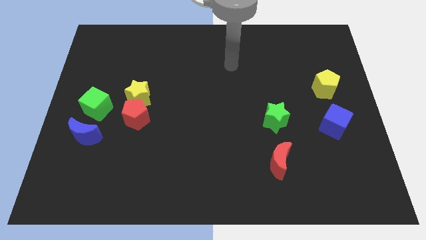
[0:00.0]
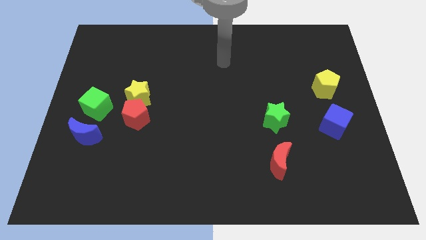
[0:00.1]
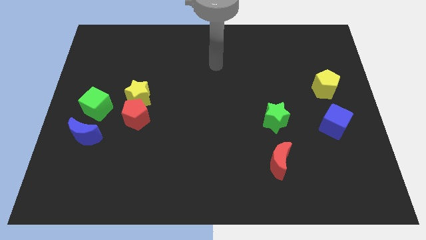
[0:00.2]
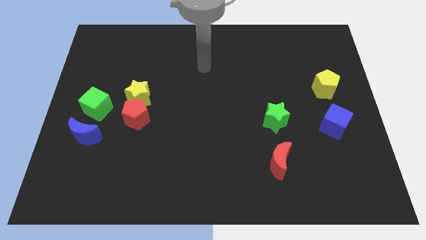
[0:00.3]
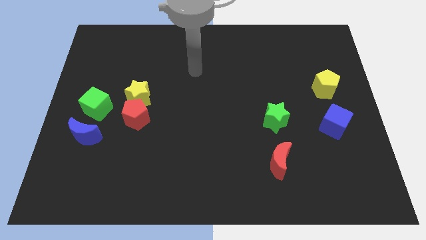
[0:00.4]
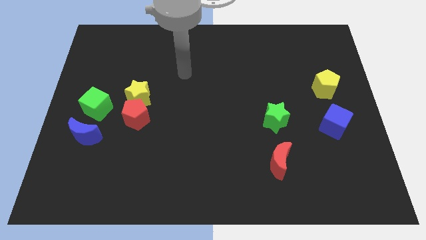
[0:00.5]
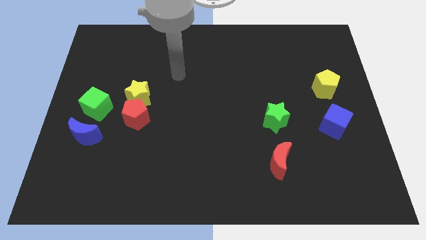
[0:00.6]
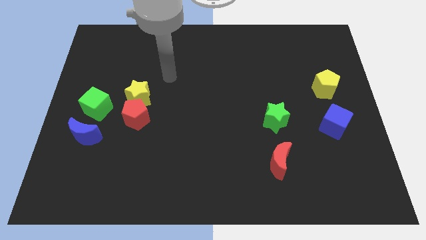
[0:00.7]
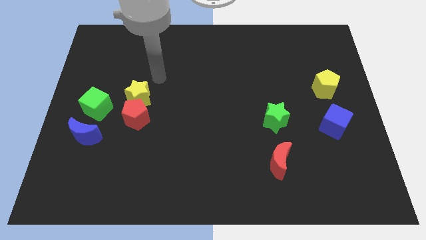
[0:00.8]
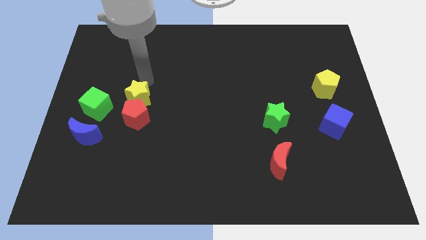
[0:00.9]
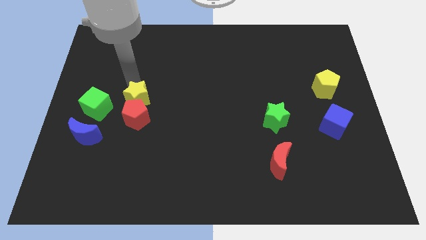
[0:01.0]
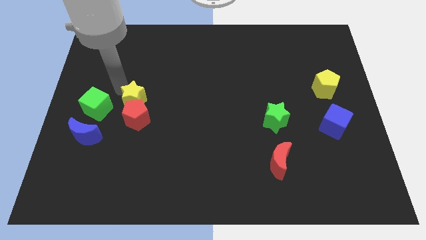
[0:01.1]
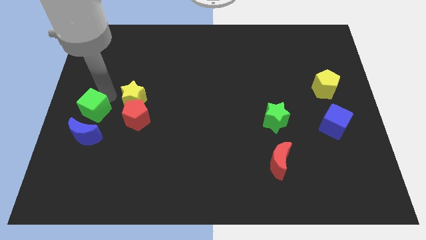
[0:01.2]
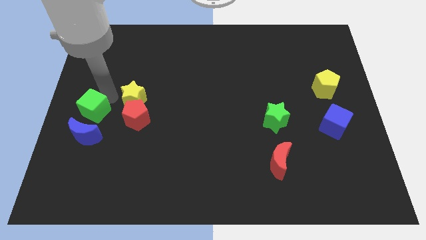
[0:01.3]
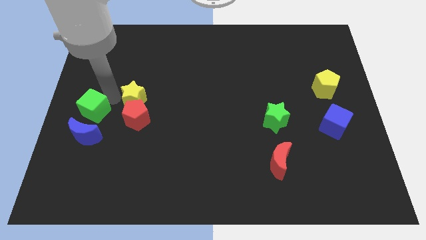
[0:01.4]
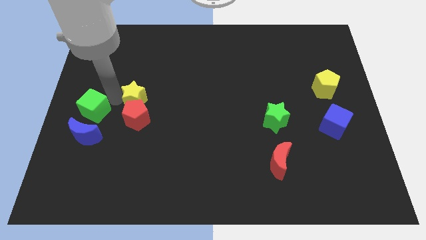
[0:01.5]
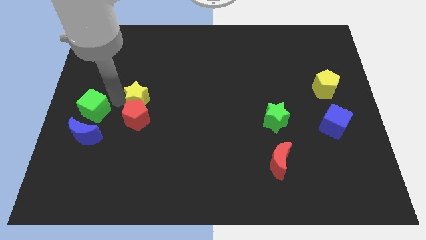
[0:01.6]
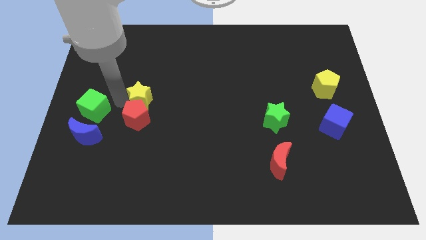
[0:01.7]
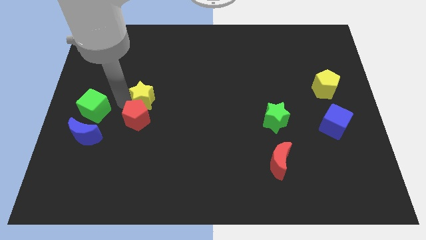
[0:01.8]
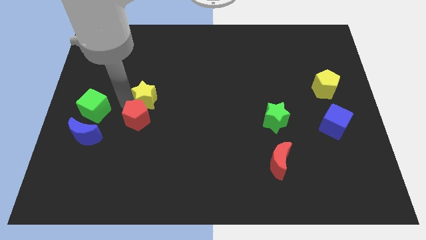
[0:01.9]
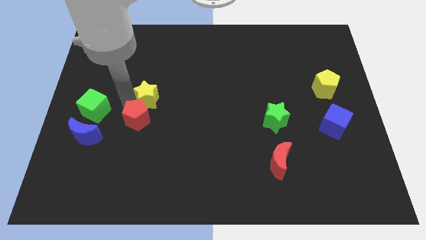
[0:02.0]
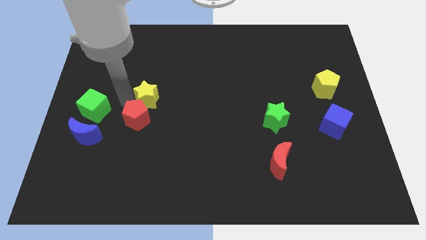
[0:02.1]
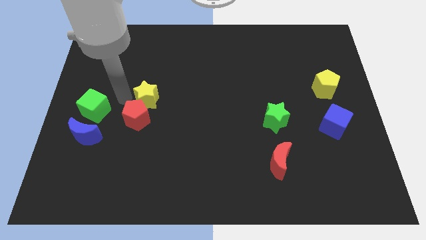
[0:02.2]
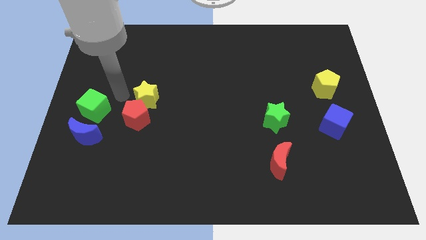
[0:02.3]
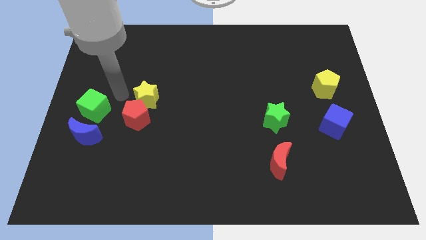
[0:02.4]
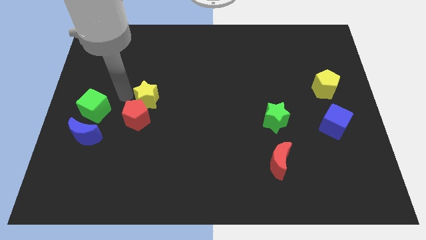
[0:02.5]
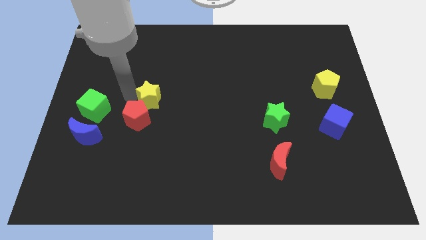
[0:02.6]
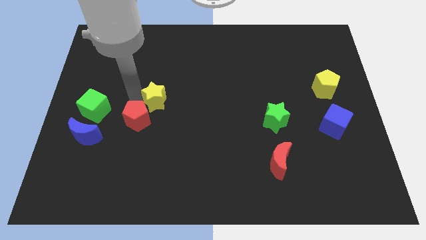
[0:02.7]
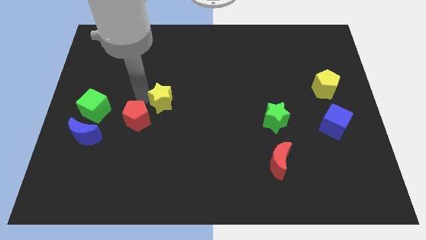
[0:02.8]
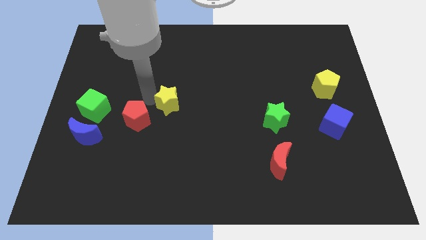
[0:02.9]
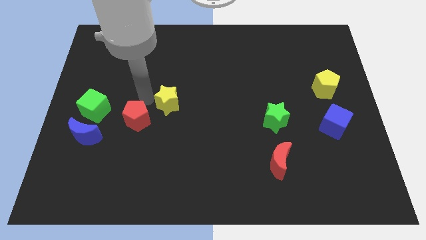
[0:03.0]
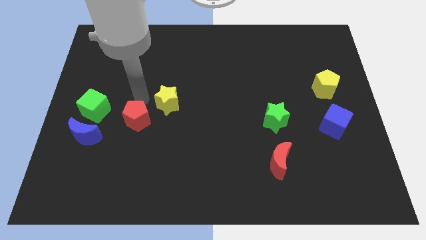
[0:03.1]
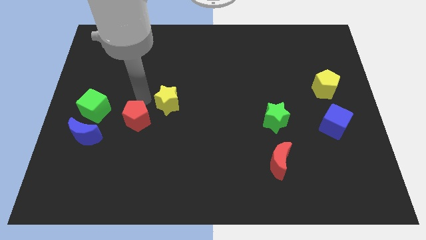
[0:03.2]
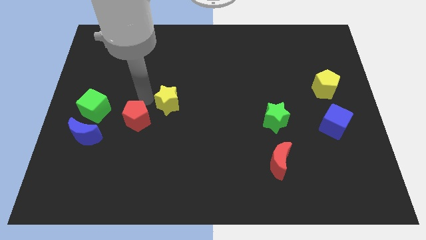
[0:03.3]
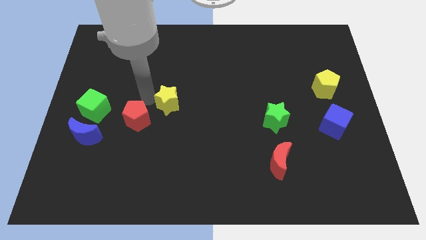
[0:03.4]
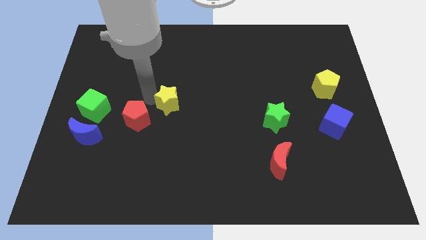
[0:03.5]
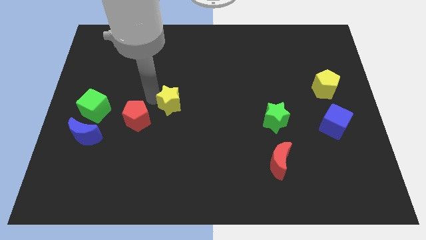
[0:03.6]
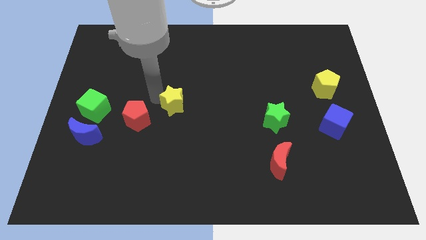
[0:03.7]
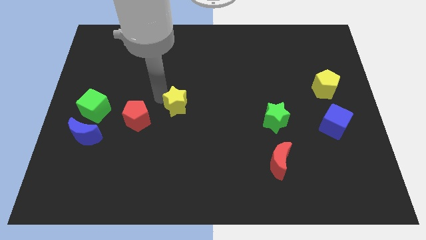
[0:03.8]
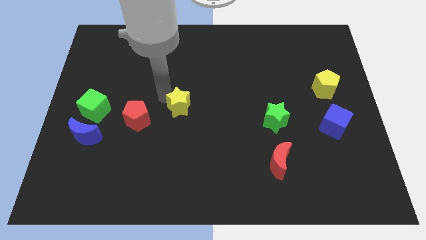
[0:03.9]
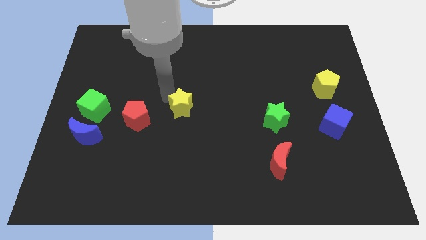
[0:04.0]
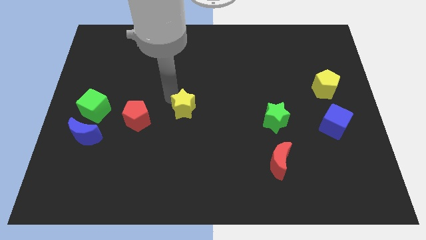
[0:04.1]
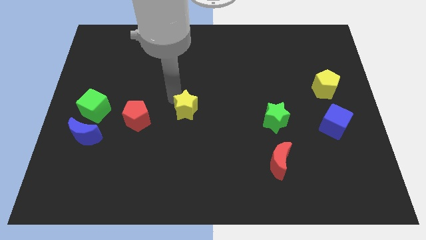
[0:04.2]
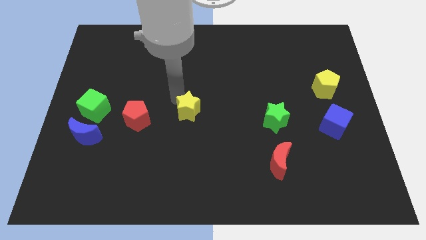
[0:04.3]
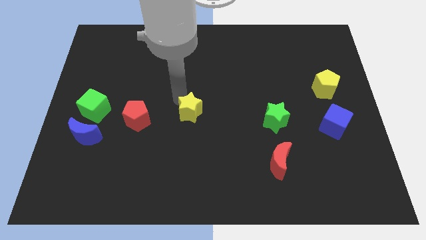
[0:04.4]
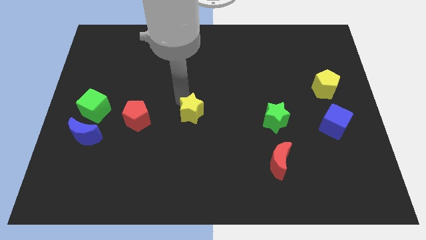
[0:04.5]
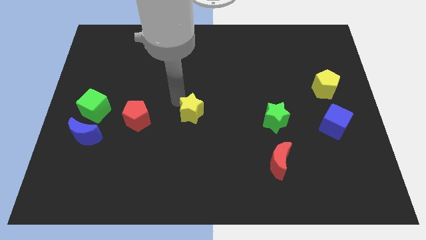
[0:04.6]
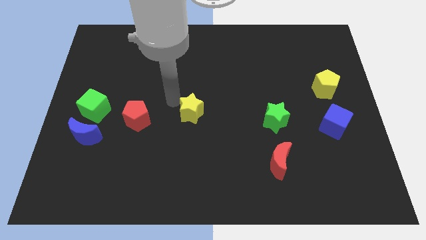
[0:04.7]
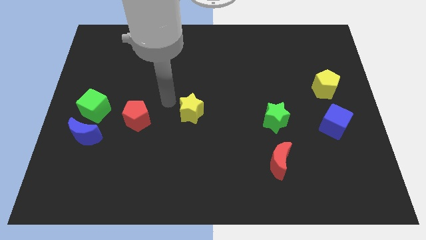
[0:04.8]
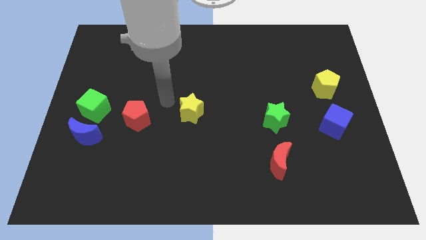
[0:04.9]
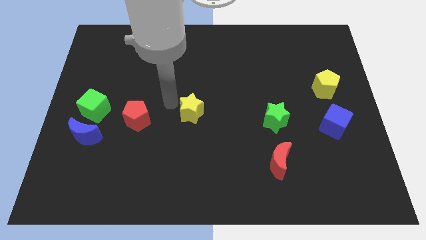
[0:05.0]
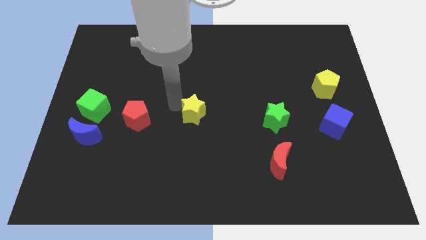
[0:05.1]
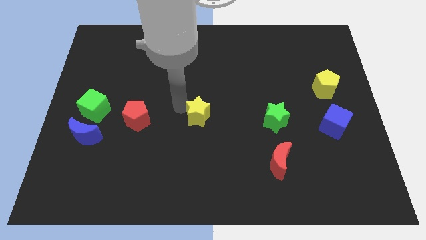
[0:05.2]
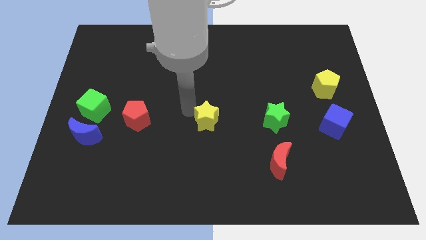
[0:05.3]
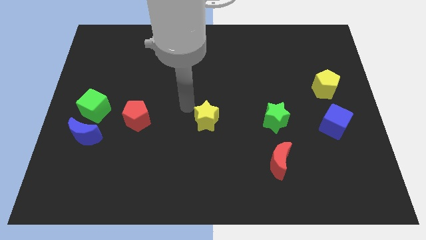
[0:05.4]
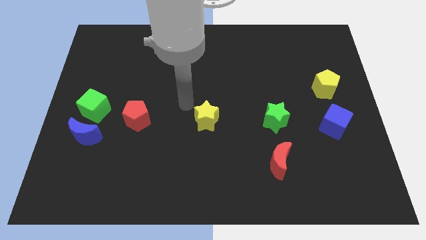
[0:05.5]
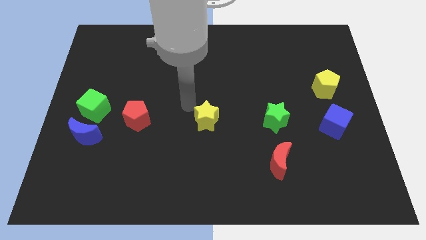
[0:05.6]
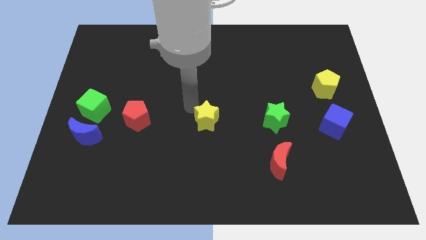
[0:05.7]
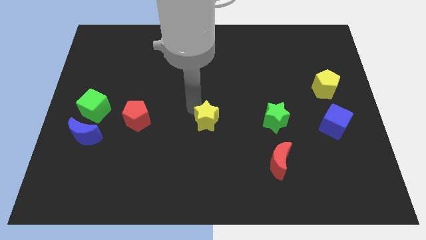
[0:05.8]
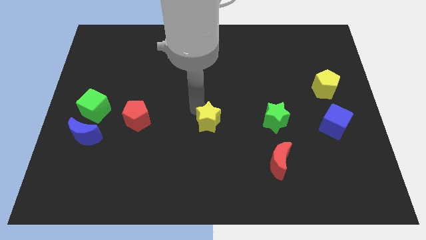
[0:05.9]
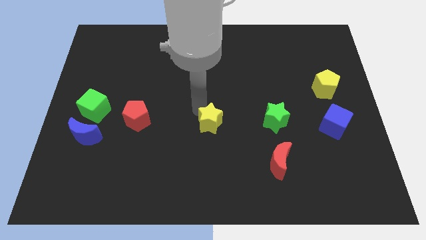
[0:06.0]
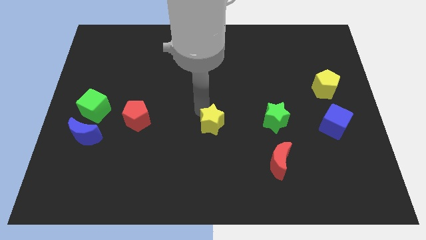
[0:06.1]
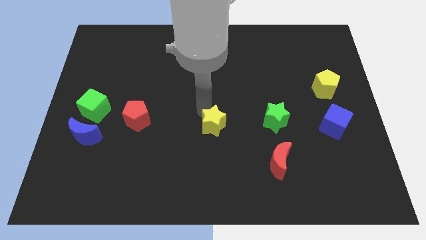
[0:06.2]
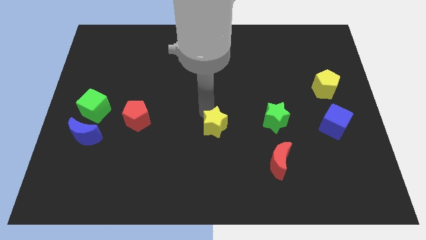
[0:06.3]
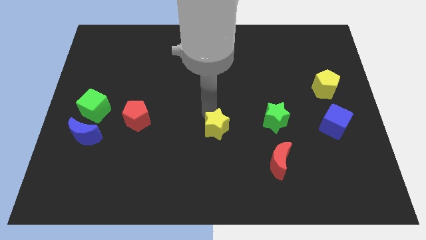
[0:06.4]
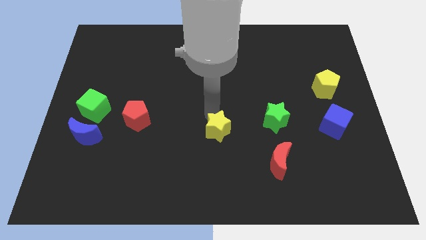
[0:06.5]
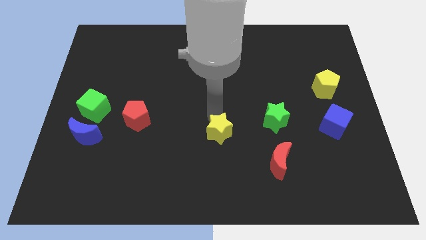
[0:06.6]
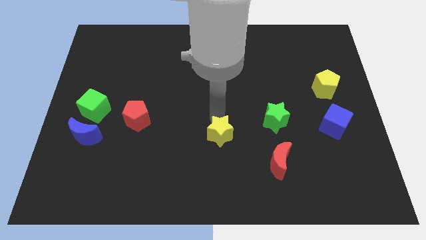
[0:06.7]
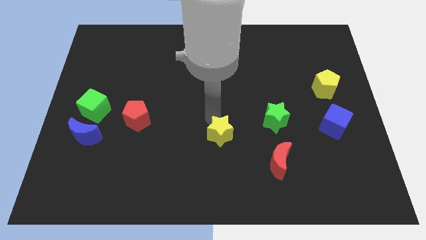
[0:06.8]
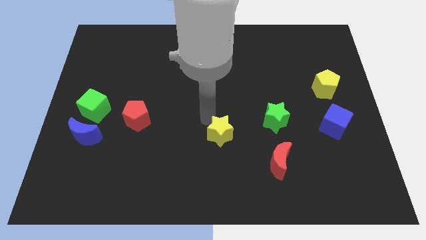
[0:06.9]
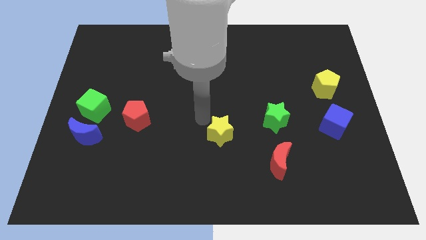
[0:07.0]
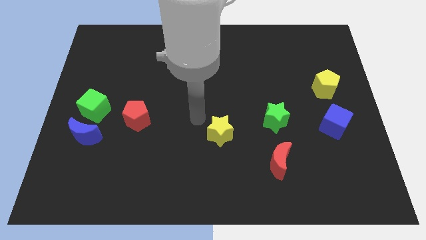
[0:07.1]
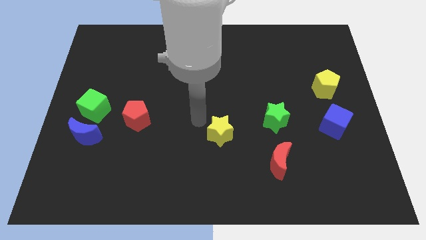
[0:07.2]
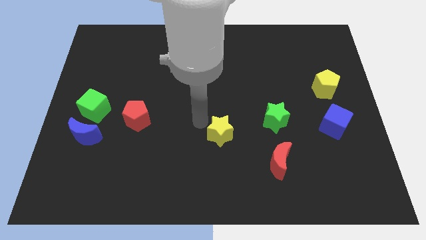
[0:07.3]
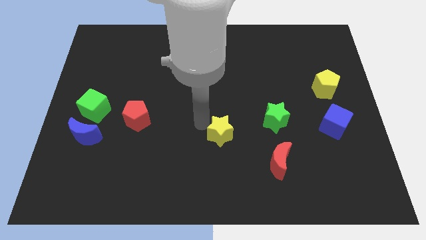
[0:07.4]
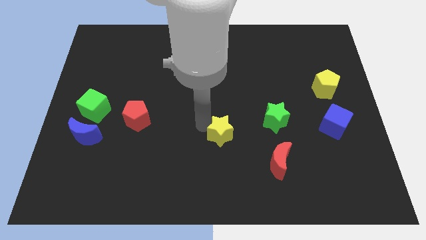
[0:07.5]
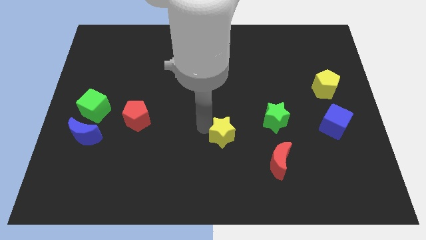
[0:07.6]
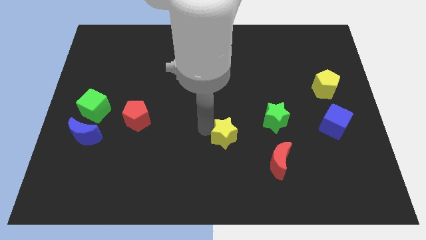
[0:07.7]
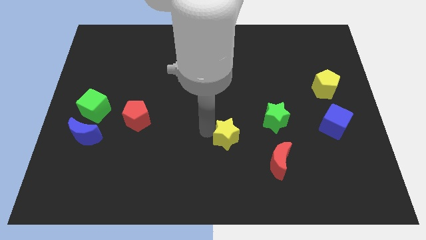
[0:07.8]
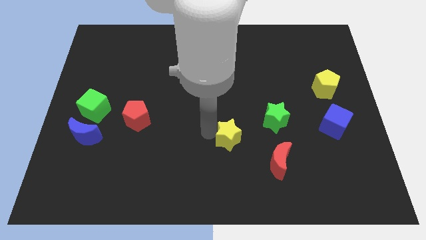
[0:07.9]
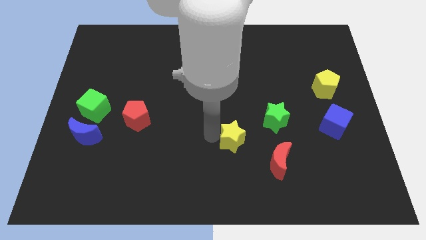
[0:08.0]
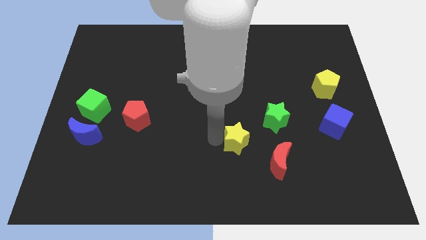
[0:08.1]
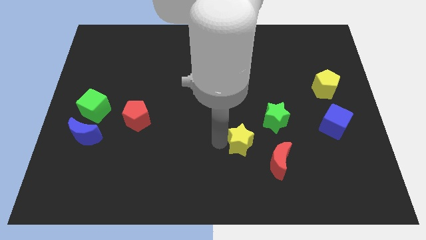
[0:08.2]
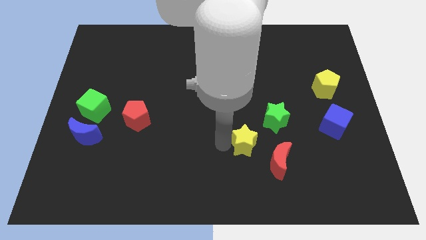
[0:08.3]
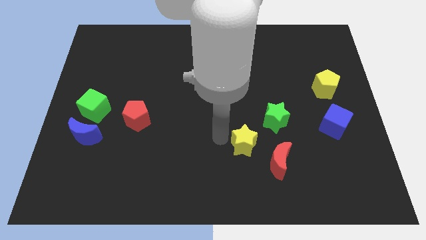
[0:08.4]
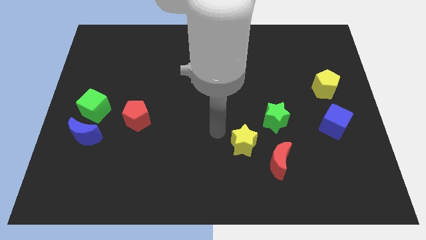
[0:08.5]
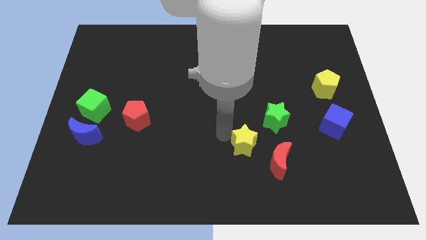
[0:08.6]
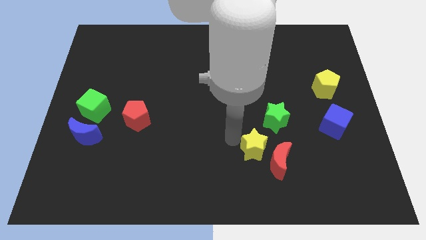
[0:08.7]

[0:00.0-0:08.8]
push the yellow star close to the red moon
